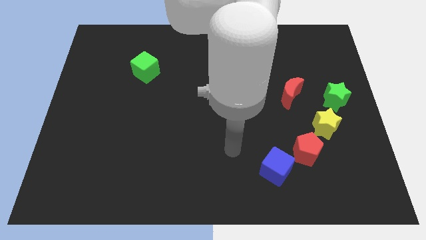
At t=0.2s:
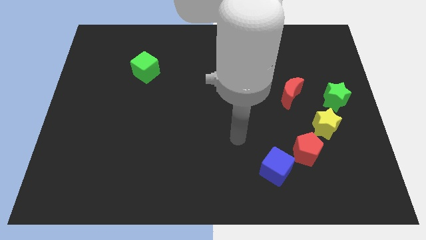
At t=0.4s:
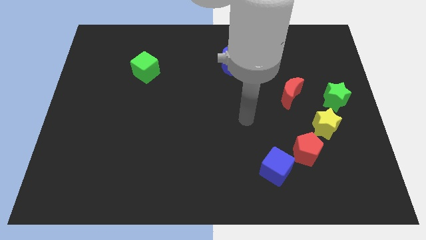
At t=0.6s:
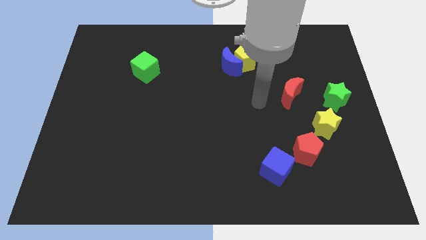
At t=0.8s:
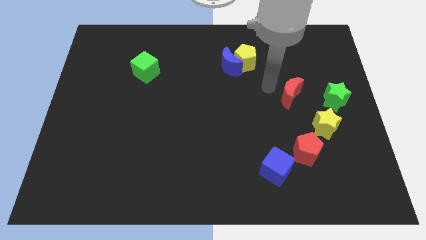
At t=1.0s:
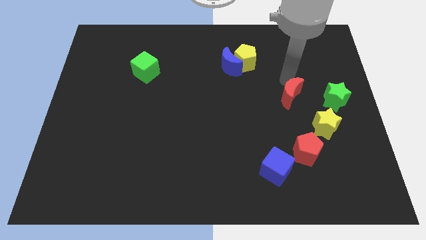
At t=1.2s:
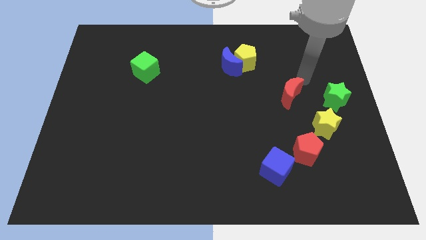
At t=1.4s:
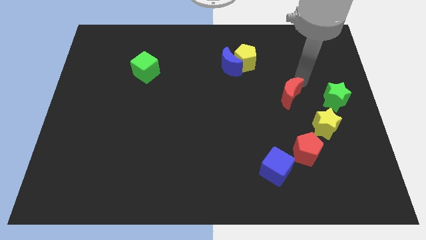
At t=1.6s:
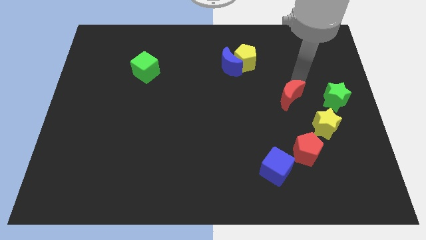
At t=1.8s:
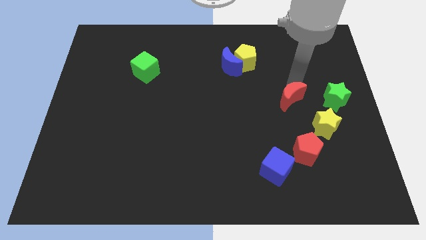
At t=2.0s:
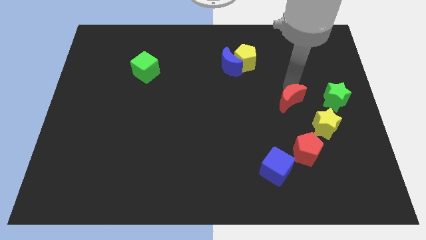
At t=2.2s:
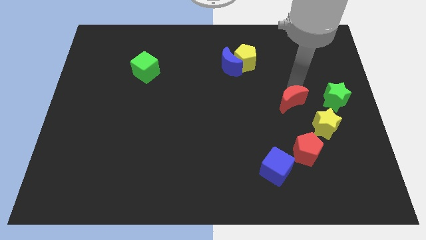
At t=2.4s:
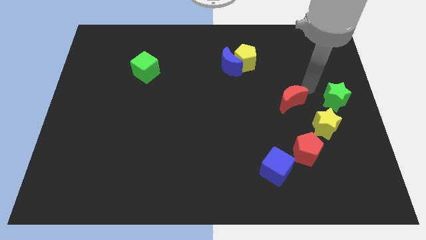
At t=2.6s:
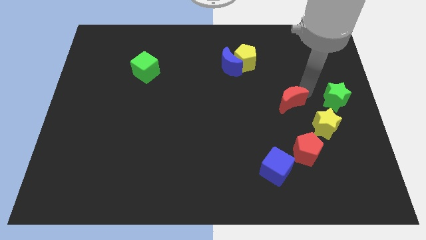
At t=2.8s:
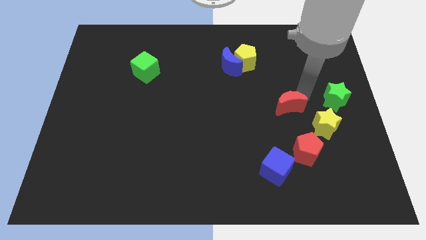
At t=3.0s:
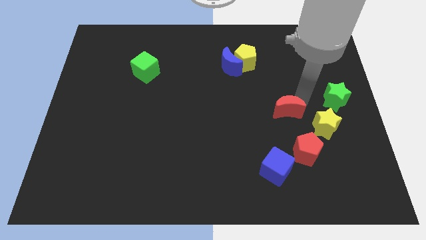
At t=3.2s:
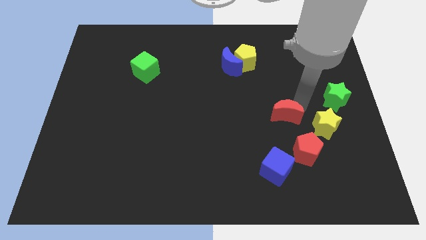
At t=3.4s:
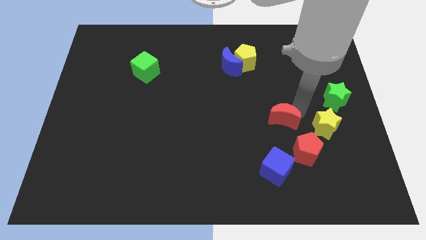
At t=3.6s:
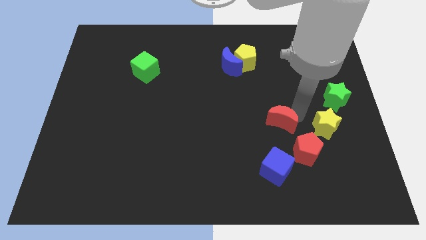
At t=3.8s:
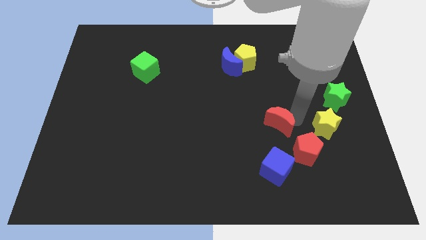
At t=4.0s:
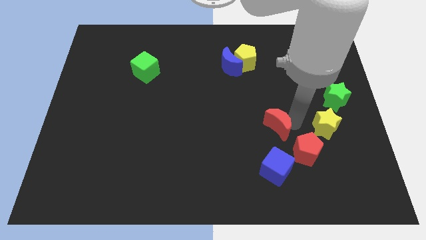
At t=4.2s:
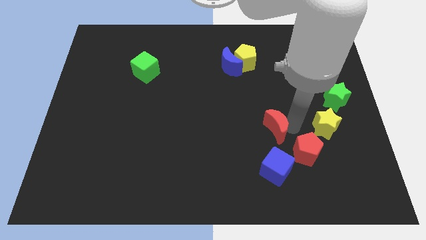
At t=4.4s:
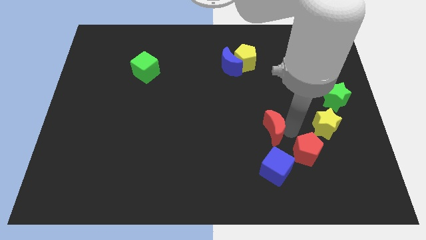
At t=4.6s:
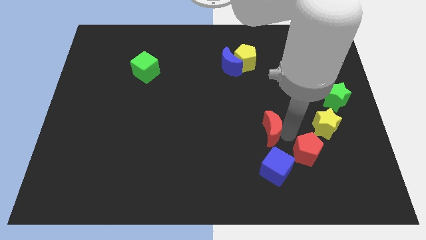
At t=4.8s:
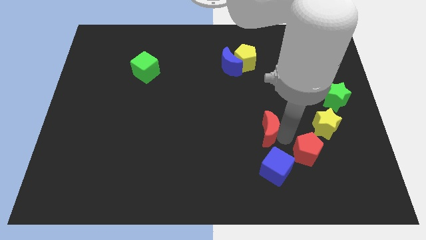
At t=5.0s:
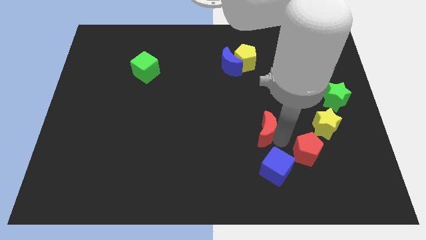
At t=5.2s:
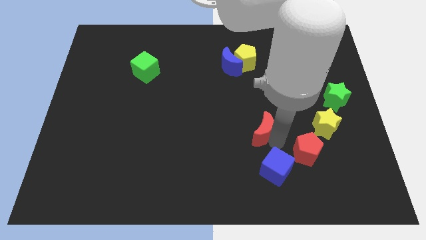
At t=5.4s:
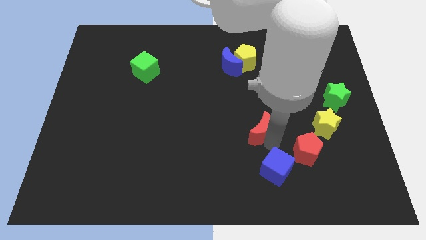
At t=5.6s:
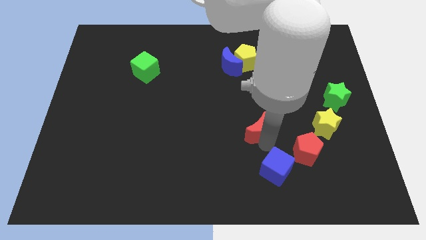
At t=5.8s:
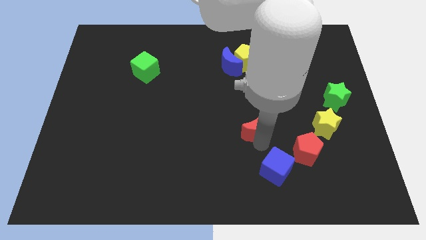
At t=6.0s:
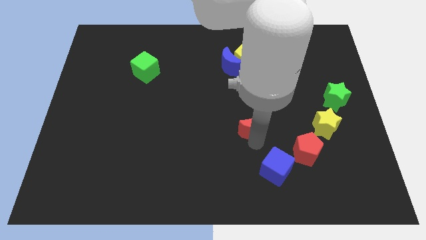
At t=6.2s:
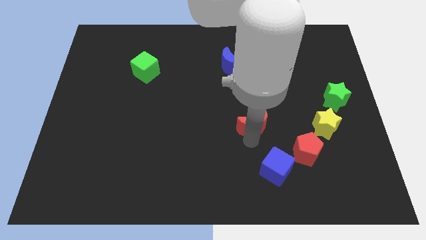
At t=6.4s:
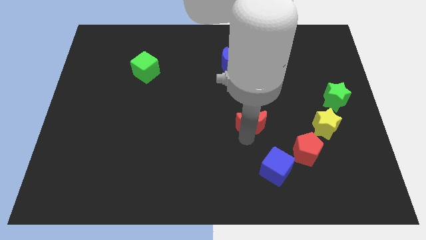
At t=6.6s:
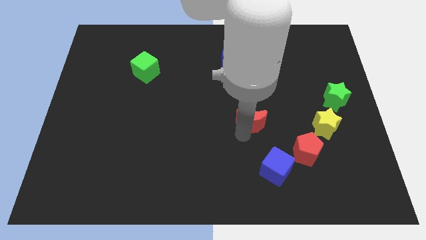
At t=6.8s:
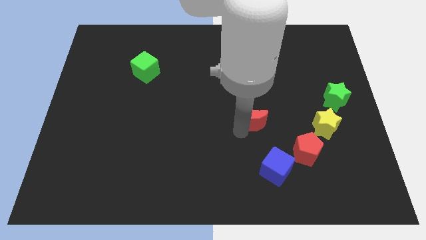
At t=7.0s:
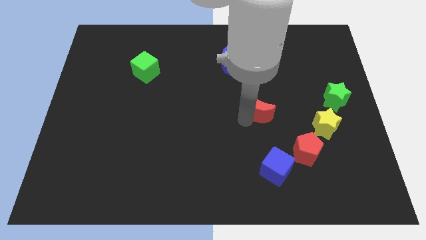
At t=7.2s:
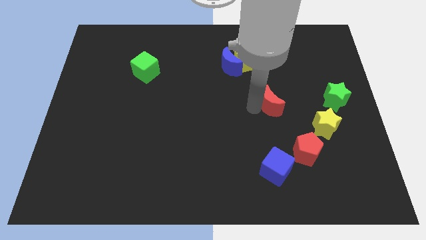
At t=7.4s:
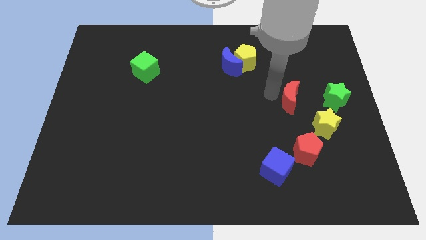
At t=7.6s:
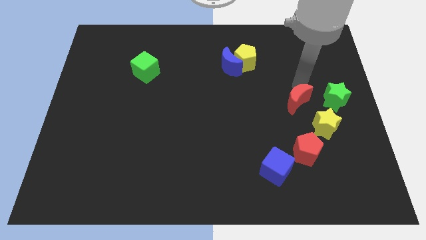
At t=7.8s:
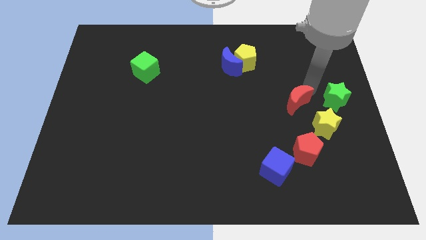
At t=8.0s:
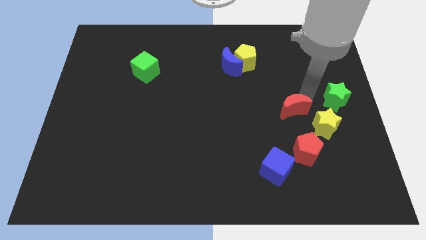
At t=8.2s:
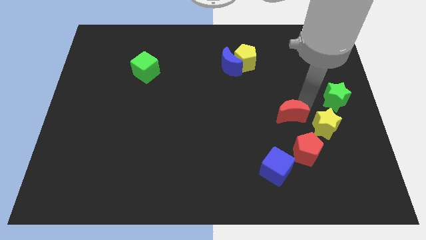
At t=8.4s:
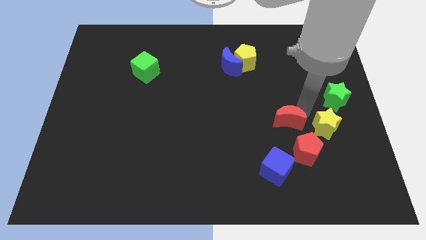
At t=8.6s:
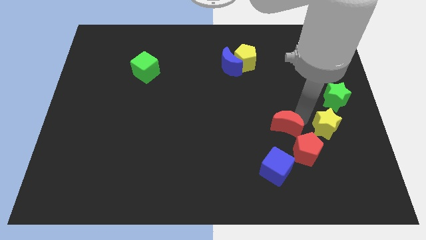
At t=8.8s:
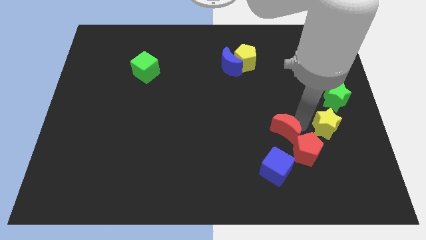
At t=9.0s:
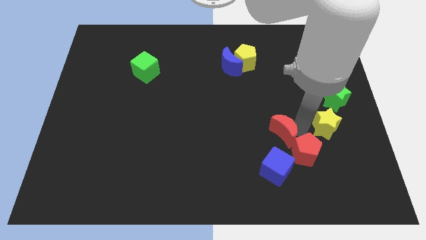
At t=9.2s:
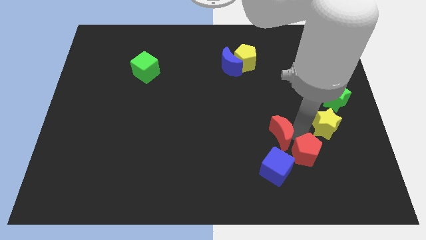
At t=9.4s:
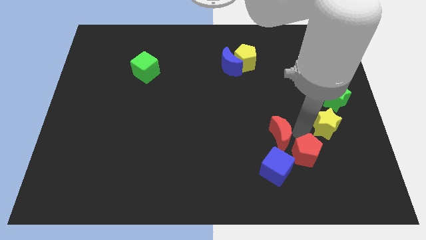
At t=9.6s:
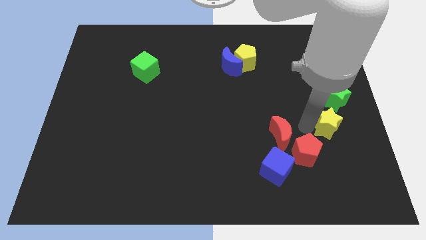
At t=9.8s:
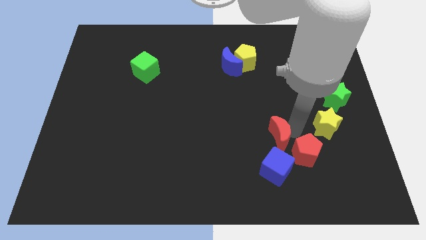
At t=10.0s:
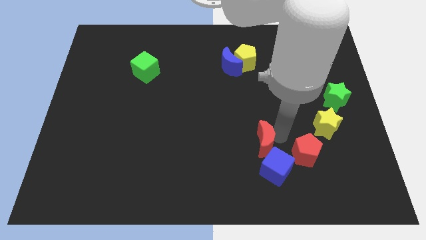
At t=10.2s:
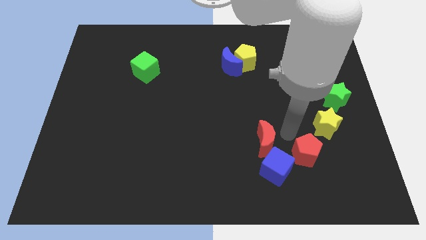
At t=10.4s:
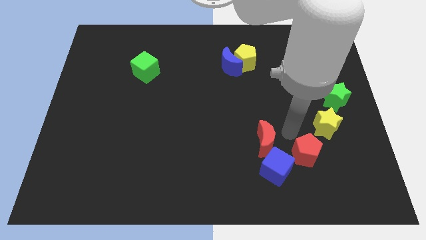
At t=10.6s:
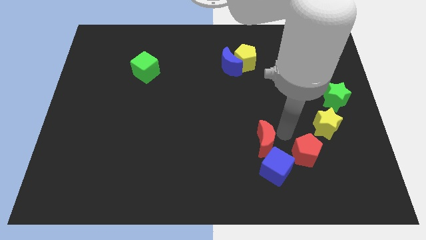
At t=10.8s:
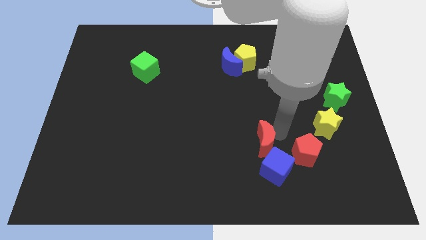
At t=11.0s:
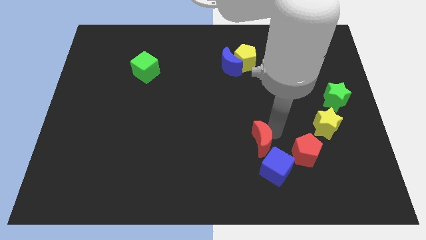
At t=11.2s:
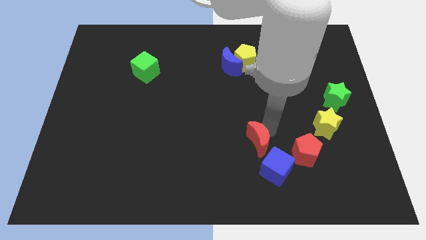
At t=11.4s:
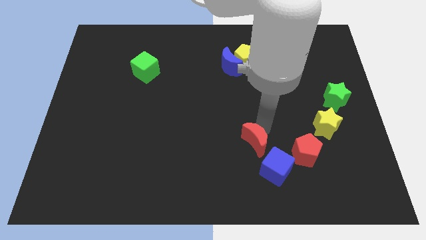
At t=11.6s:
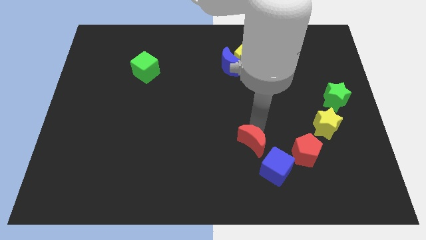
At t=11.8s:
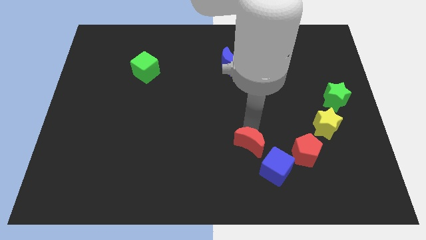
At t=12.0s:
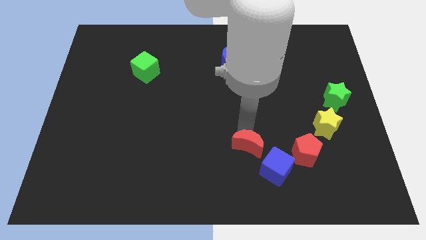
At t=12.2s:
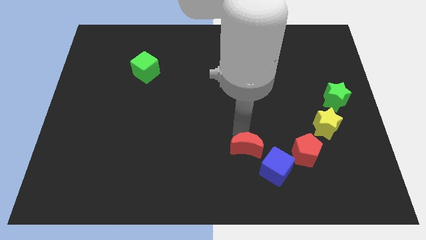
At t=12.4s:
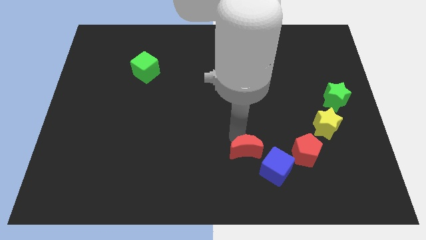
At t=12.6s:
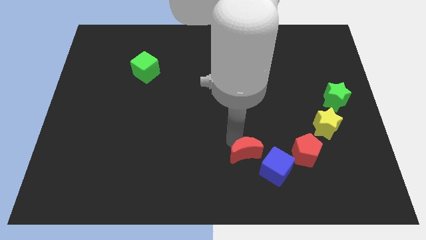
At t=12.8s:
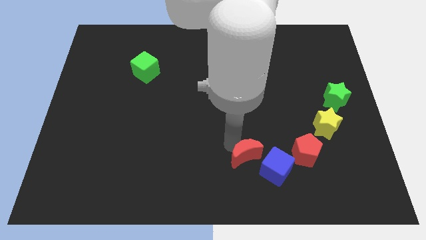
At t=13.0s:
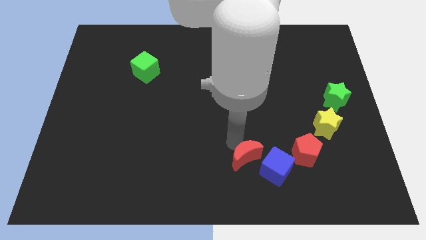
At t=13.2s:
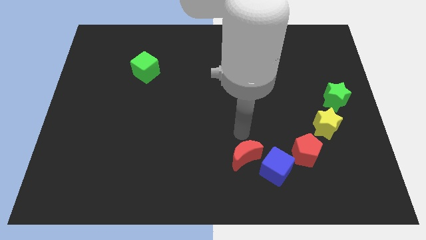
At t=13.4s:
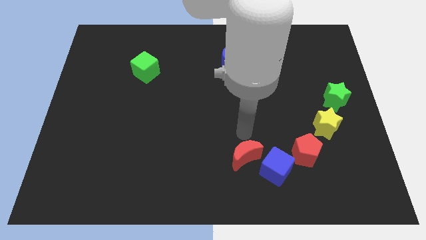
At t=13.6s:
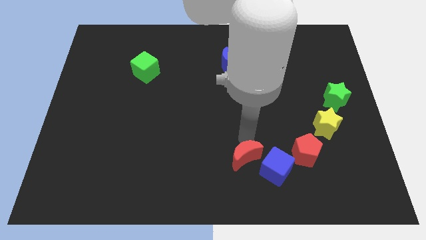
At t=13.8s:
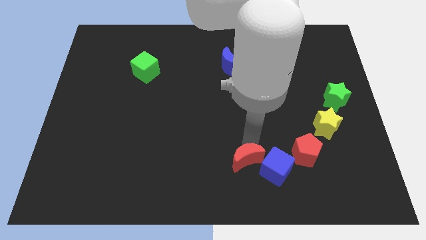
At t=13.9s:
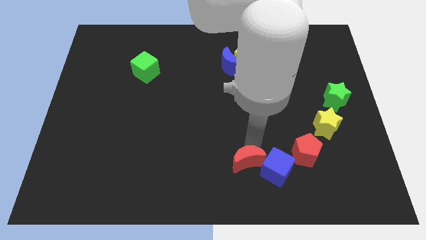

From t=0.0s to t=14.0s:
move the red moon to the bottom
